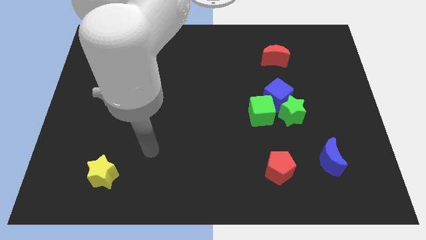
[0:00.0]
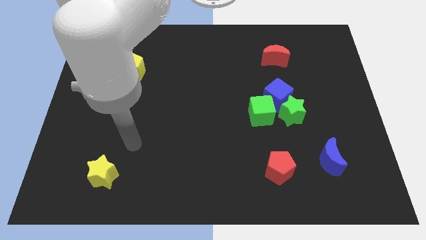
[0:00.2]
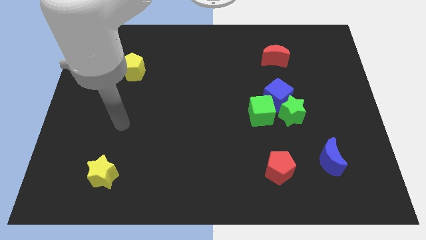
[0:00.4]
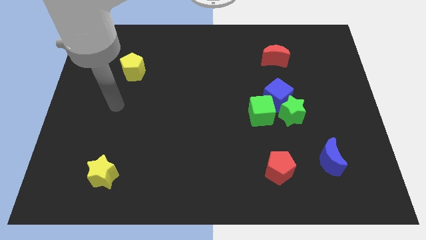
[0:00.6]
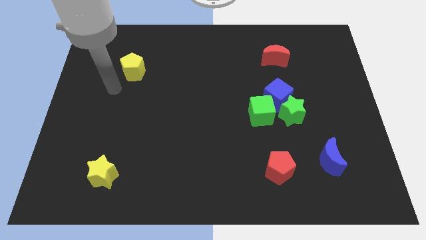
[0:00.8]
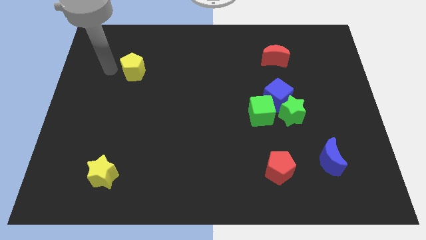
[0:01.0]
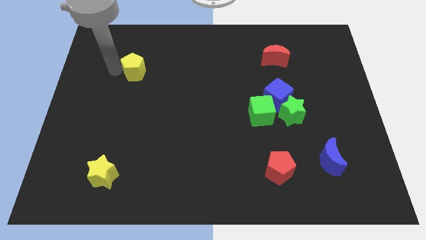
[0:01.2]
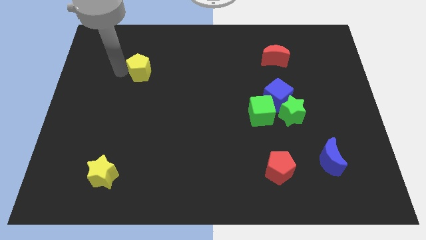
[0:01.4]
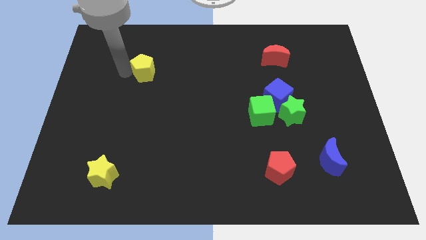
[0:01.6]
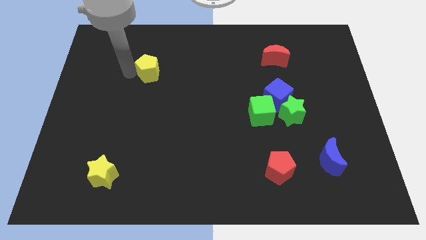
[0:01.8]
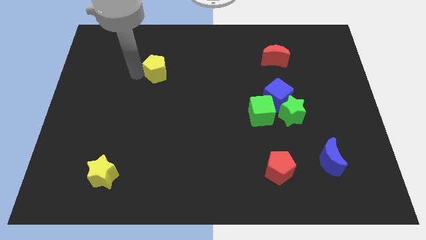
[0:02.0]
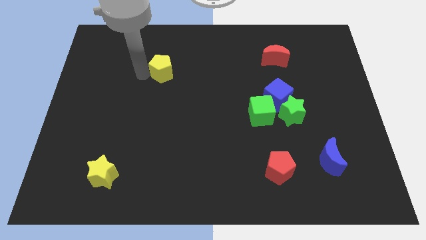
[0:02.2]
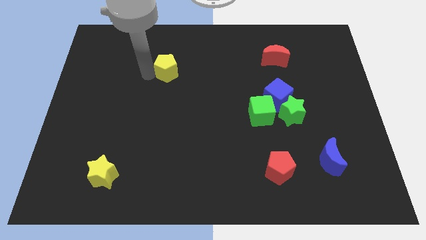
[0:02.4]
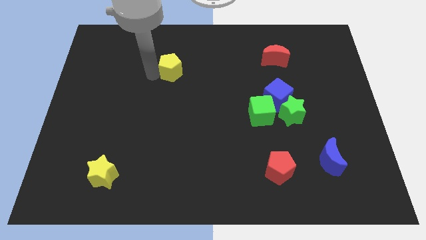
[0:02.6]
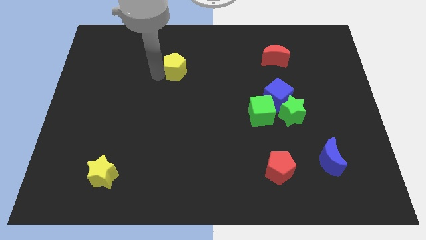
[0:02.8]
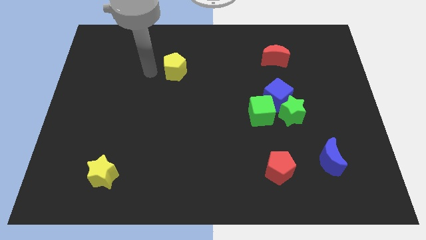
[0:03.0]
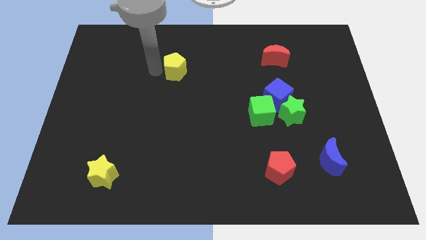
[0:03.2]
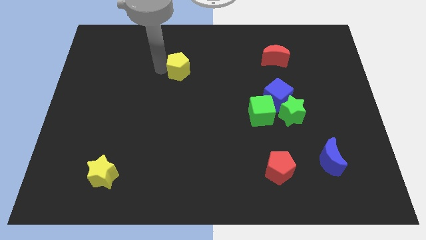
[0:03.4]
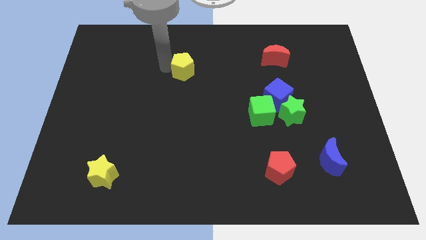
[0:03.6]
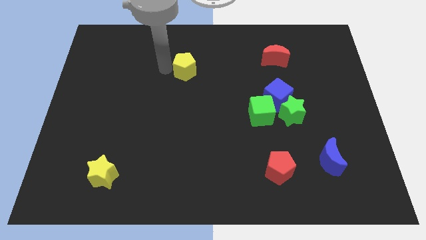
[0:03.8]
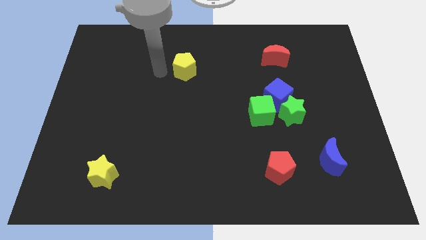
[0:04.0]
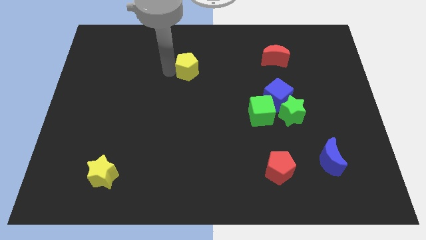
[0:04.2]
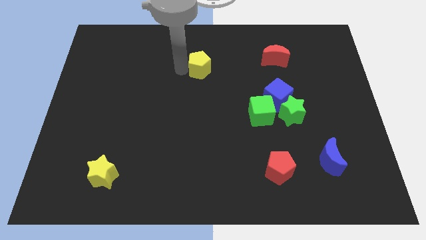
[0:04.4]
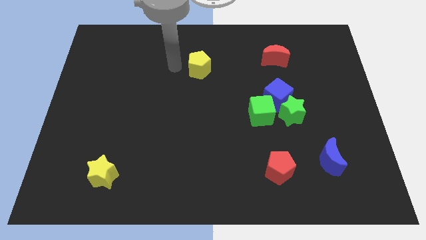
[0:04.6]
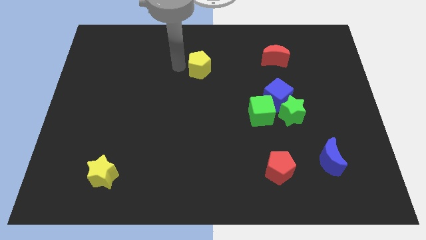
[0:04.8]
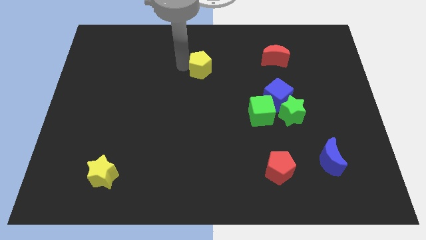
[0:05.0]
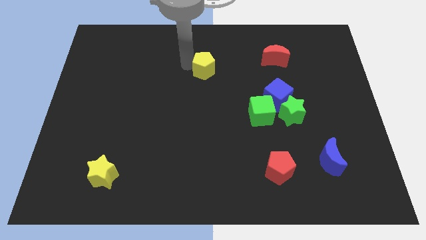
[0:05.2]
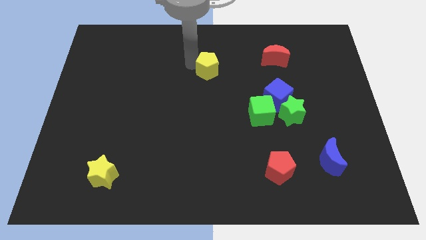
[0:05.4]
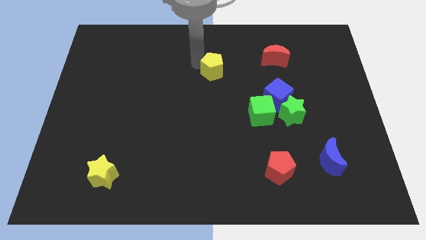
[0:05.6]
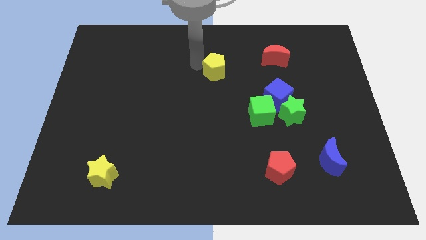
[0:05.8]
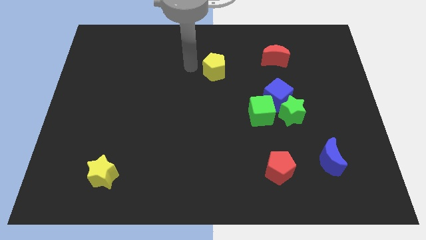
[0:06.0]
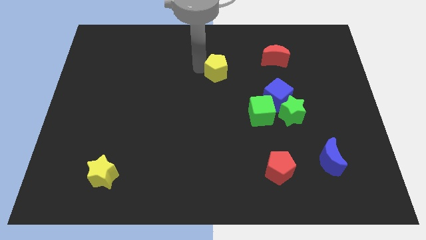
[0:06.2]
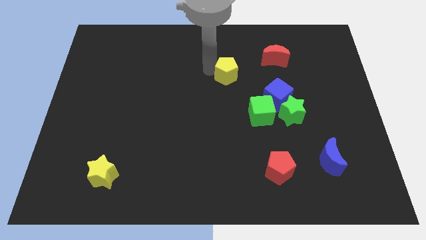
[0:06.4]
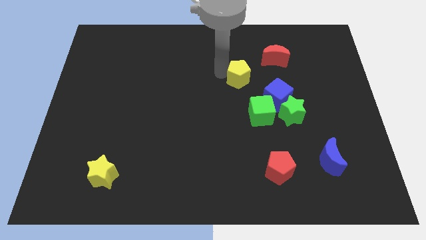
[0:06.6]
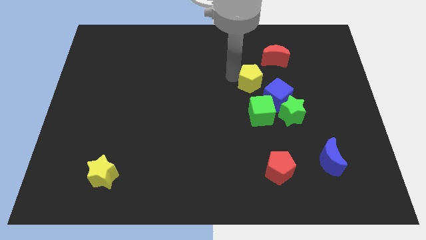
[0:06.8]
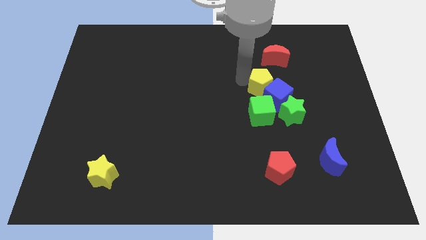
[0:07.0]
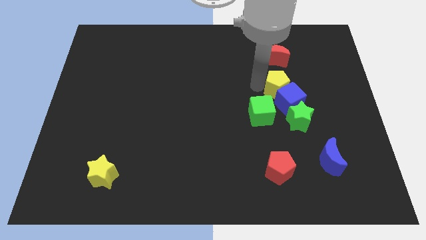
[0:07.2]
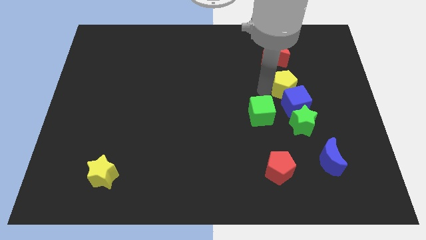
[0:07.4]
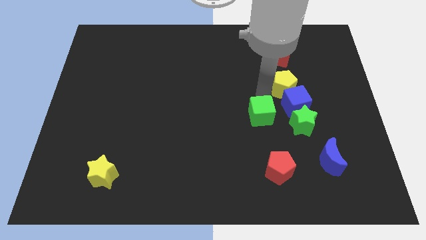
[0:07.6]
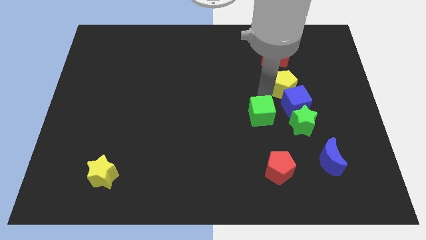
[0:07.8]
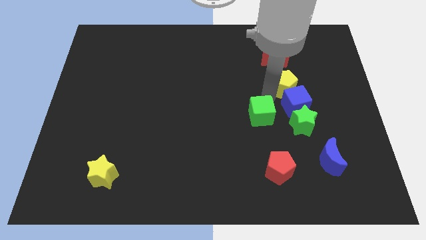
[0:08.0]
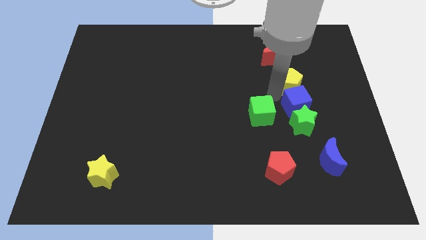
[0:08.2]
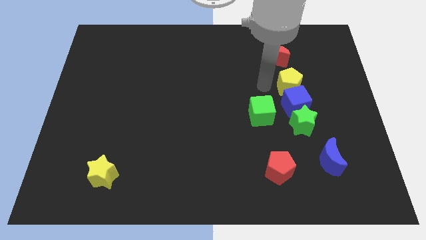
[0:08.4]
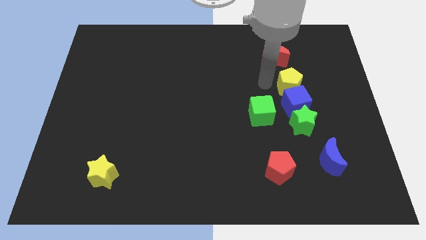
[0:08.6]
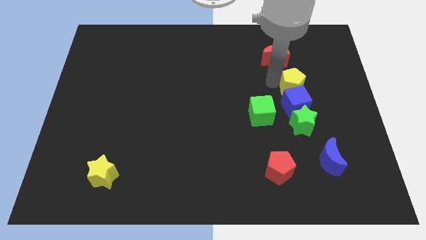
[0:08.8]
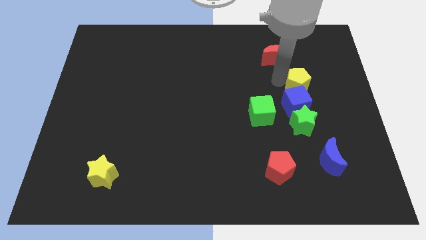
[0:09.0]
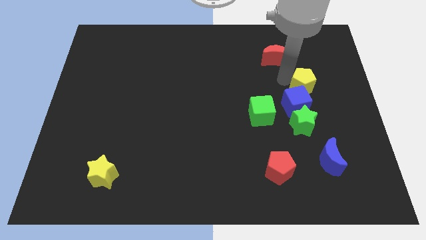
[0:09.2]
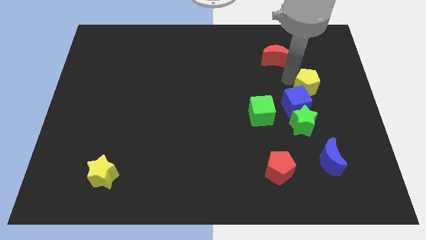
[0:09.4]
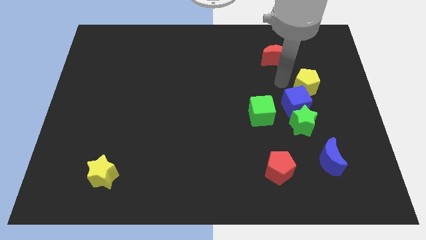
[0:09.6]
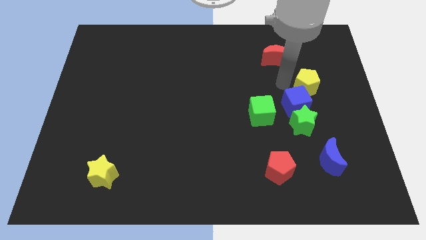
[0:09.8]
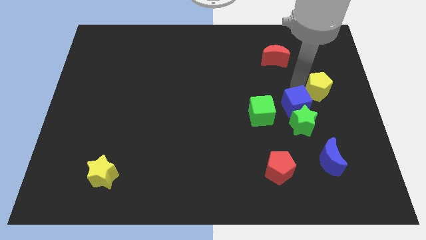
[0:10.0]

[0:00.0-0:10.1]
move the yellow pentagon to the right side of the board

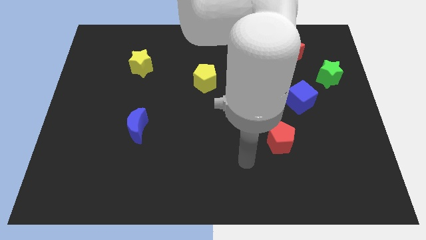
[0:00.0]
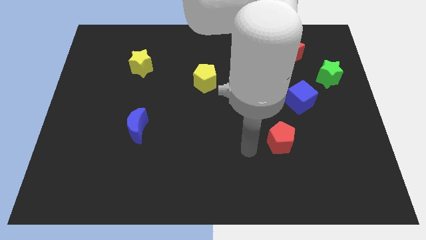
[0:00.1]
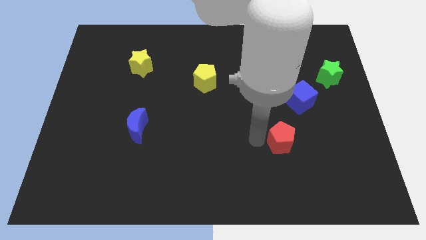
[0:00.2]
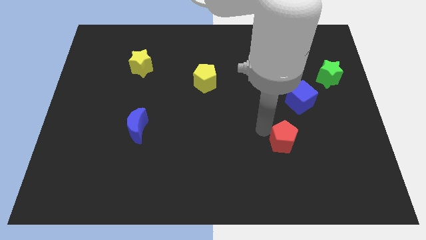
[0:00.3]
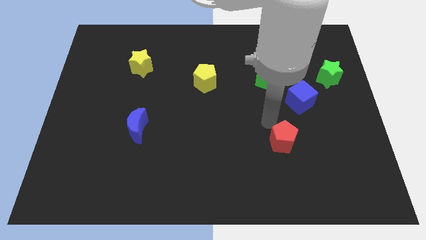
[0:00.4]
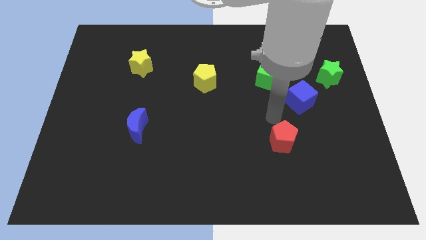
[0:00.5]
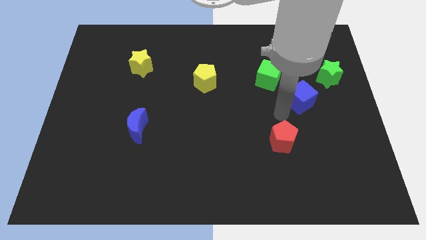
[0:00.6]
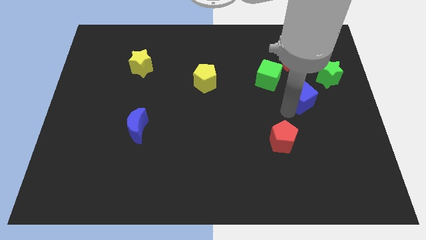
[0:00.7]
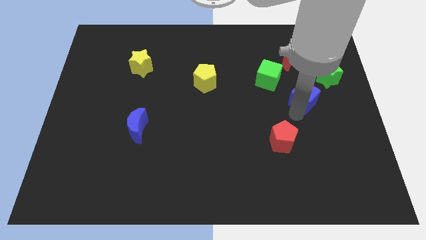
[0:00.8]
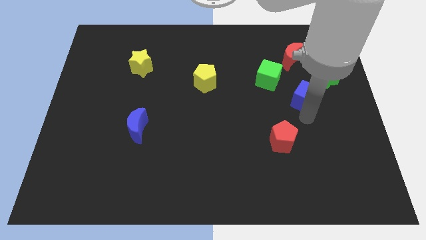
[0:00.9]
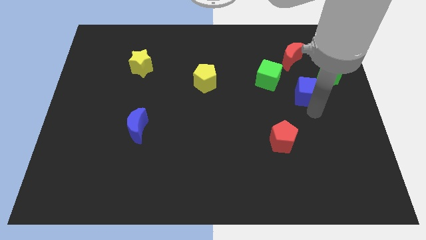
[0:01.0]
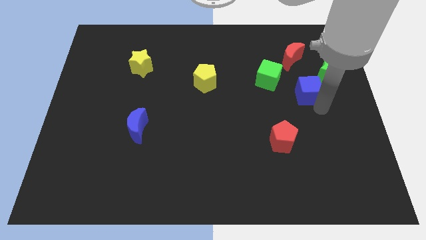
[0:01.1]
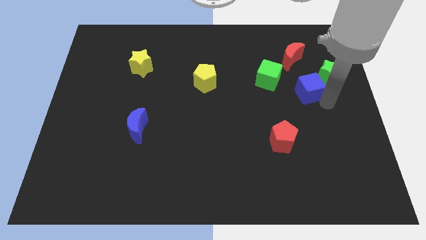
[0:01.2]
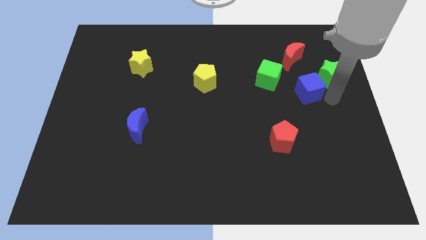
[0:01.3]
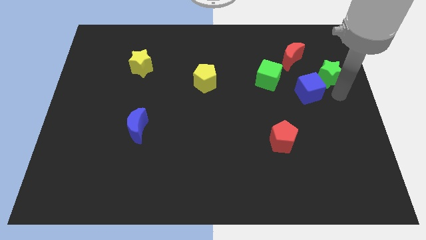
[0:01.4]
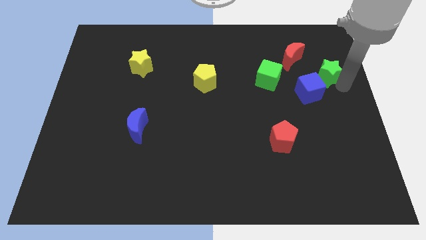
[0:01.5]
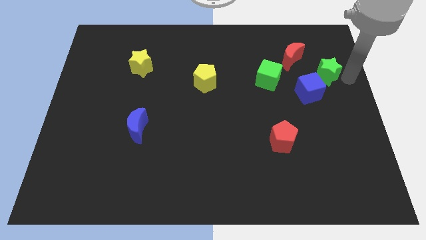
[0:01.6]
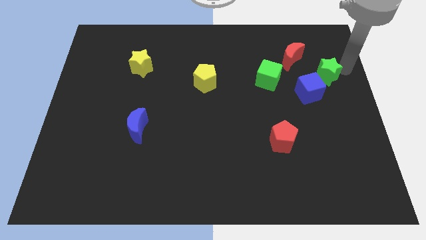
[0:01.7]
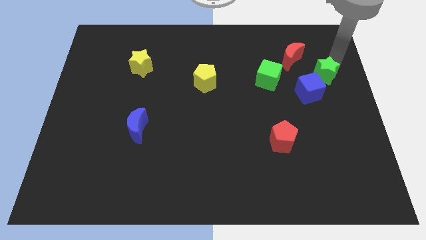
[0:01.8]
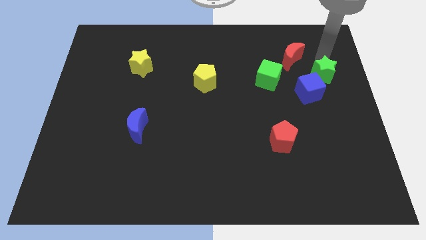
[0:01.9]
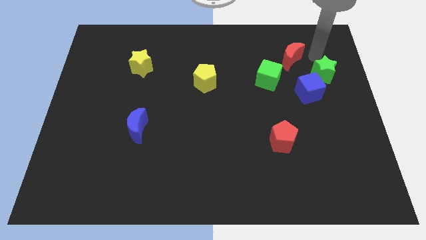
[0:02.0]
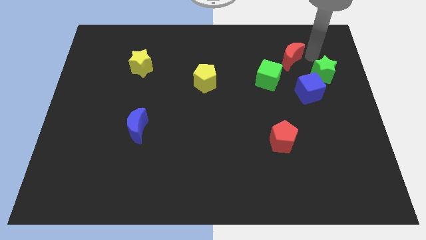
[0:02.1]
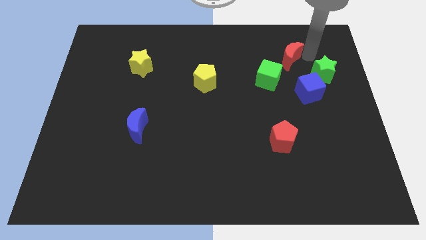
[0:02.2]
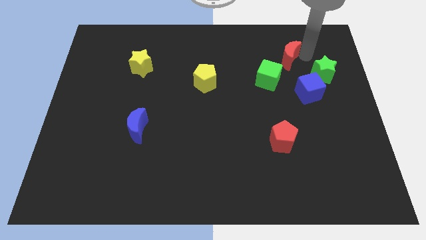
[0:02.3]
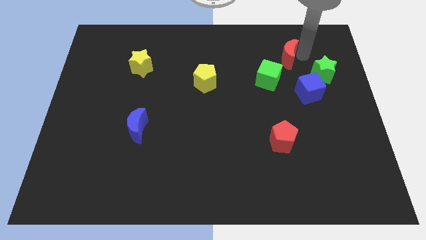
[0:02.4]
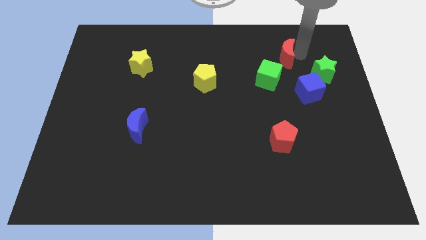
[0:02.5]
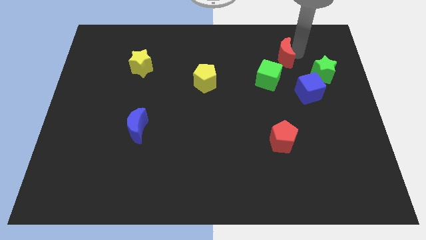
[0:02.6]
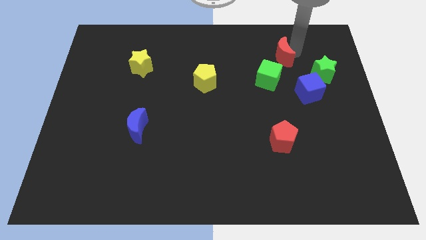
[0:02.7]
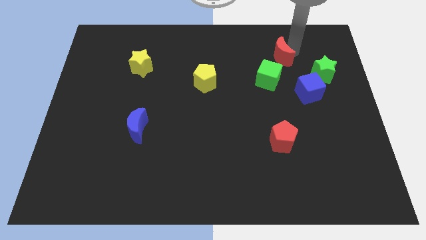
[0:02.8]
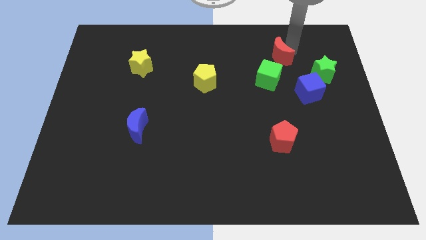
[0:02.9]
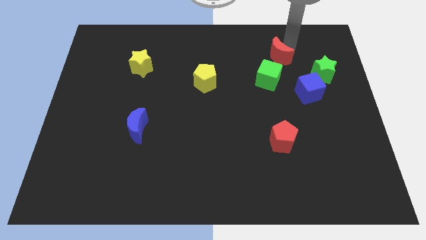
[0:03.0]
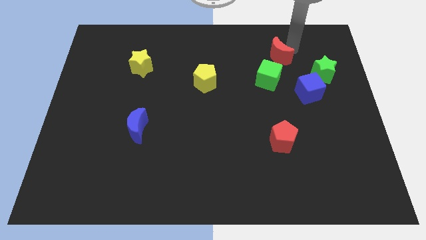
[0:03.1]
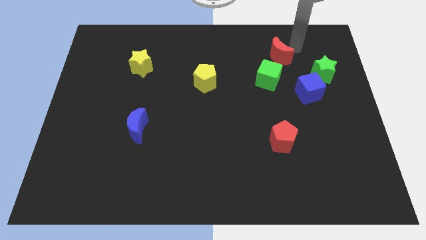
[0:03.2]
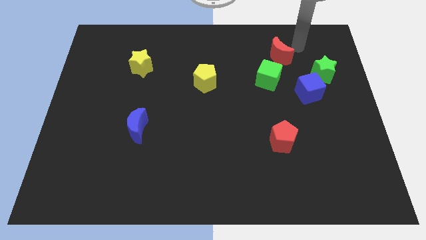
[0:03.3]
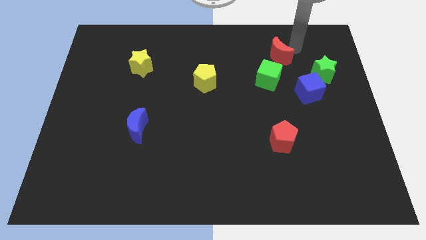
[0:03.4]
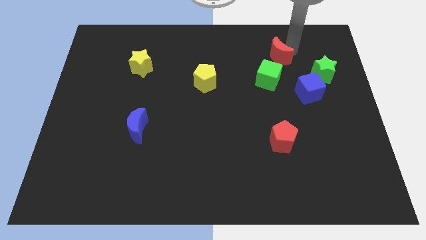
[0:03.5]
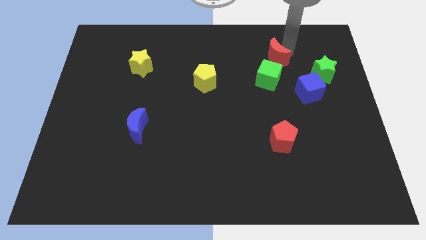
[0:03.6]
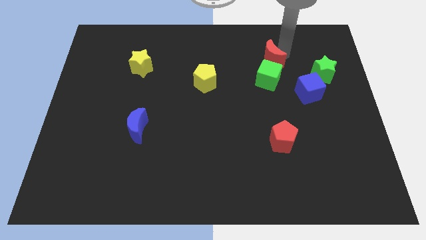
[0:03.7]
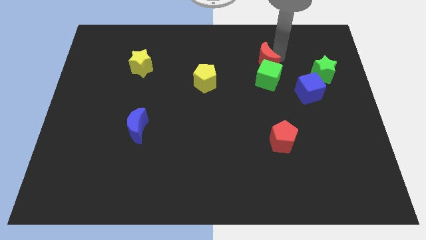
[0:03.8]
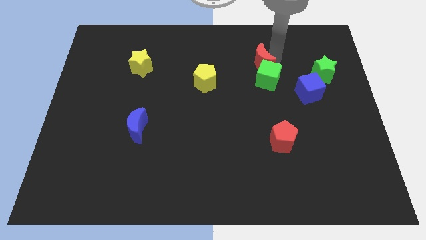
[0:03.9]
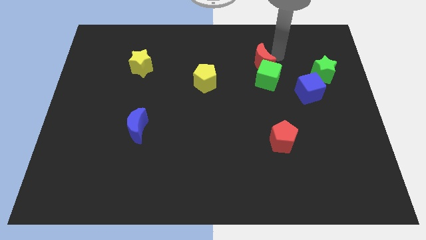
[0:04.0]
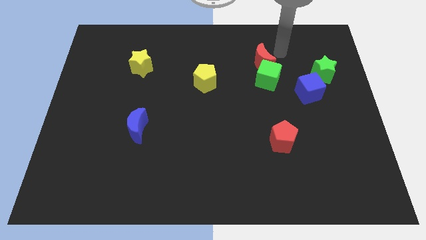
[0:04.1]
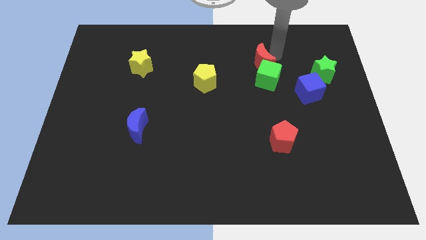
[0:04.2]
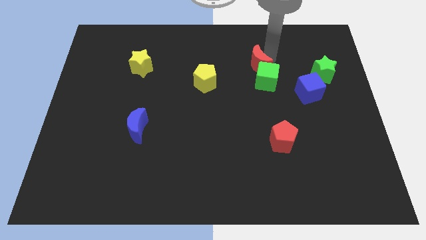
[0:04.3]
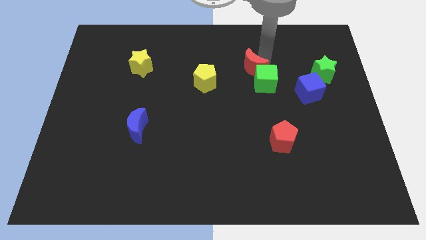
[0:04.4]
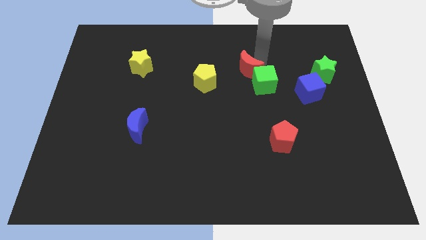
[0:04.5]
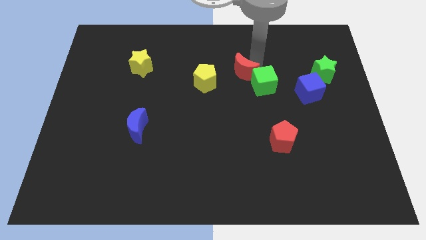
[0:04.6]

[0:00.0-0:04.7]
move the red moon to the center of the board
